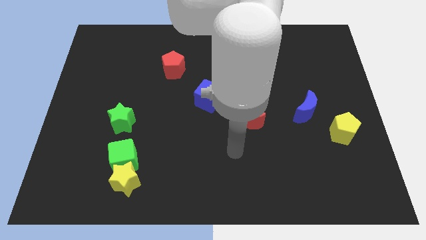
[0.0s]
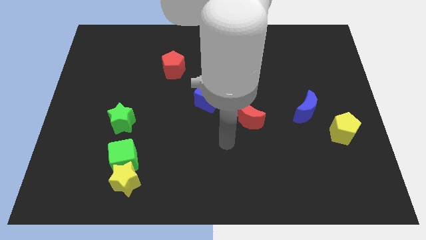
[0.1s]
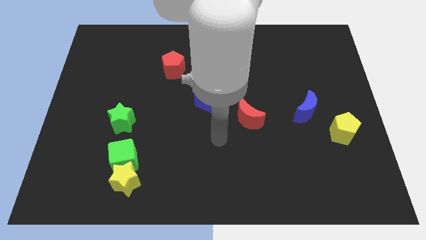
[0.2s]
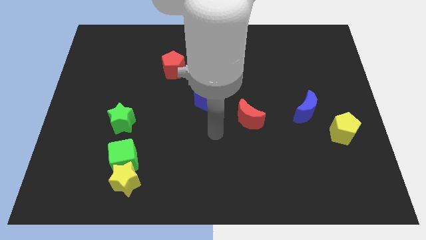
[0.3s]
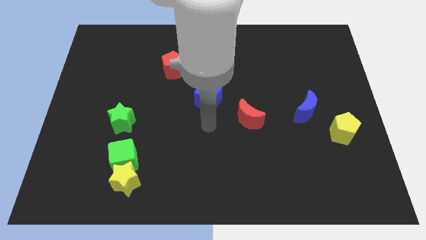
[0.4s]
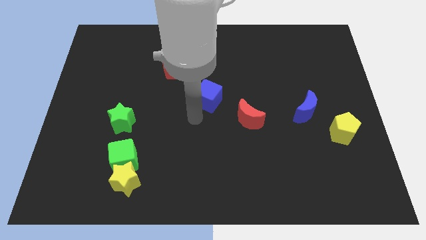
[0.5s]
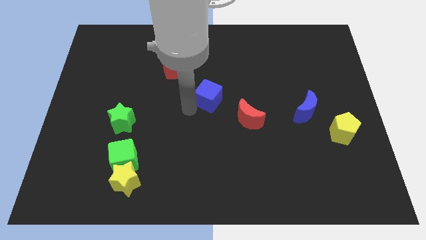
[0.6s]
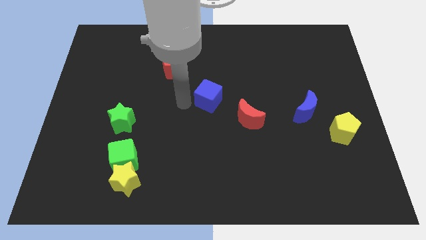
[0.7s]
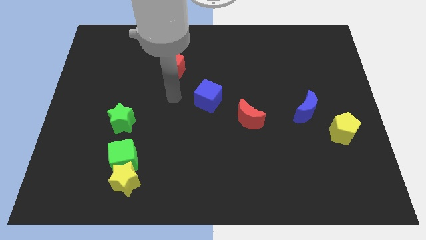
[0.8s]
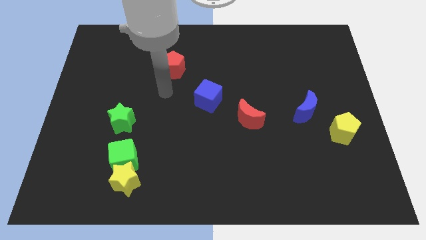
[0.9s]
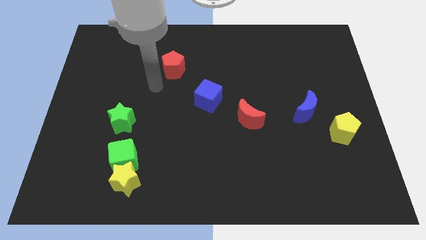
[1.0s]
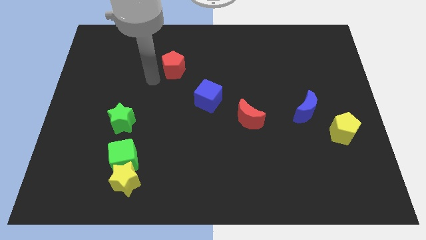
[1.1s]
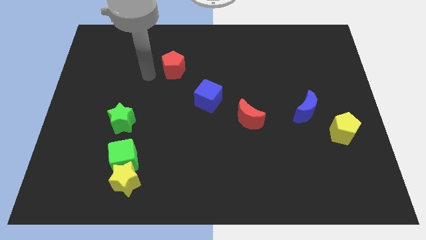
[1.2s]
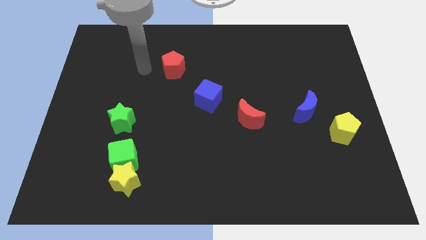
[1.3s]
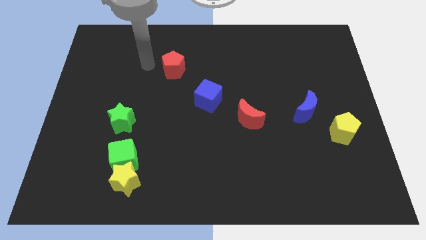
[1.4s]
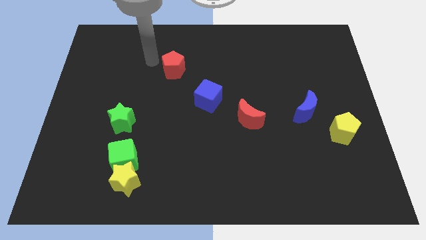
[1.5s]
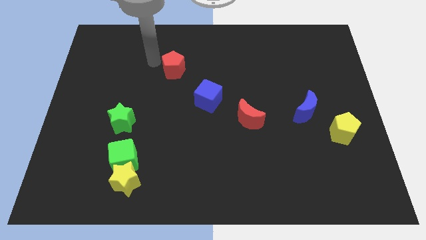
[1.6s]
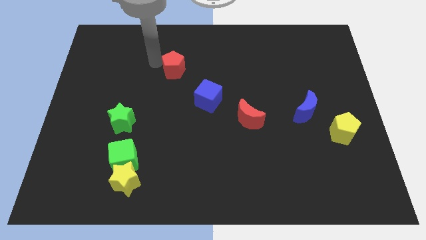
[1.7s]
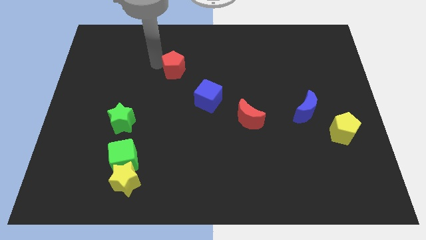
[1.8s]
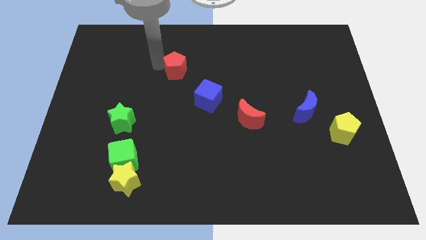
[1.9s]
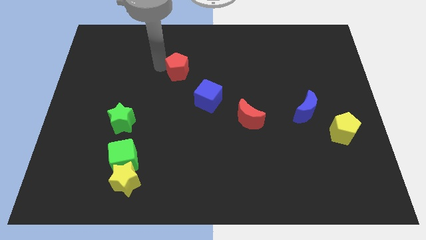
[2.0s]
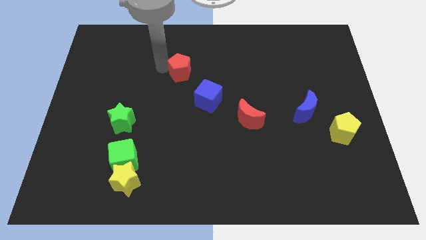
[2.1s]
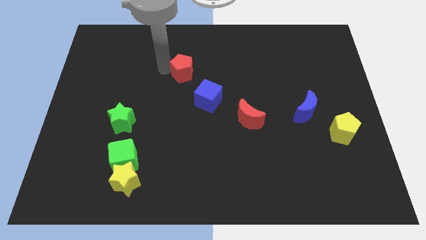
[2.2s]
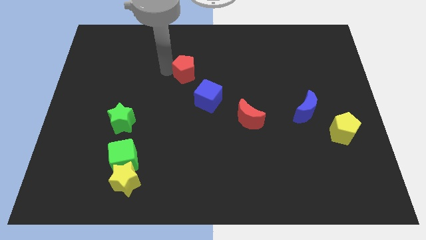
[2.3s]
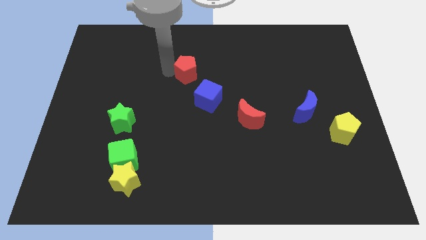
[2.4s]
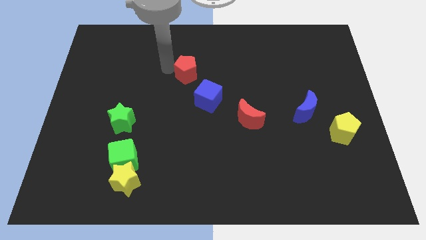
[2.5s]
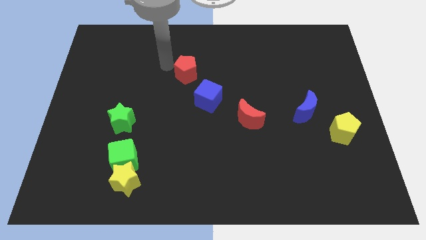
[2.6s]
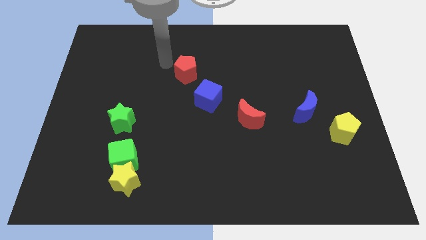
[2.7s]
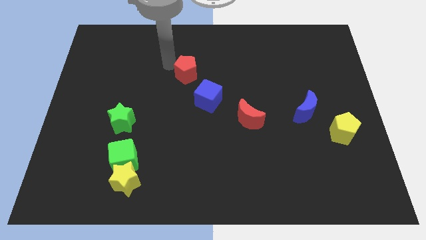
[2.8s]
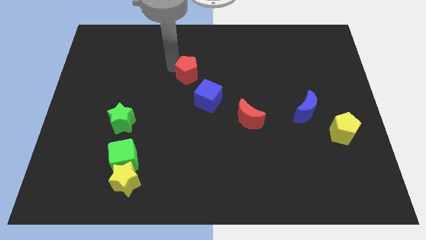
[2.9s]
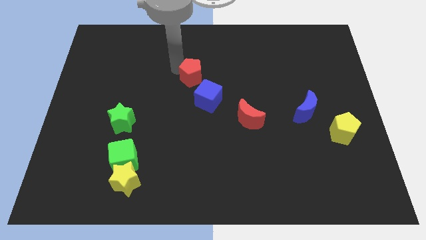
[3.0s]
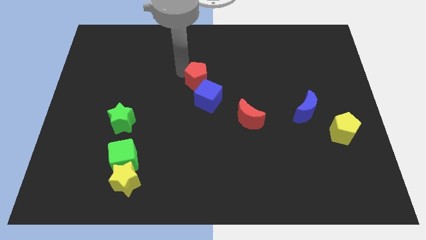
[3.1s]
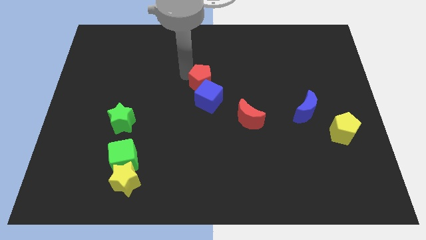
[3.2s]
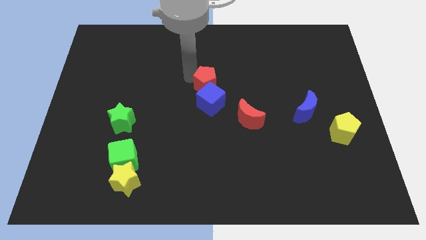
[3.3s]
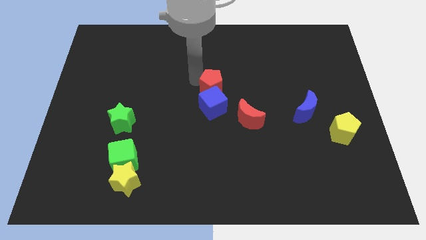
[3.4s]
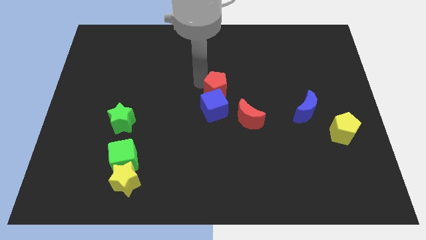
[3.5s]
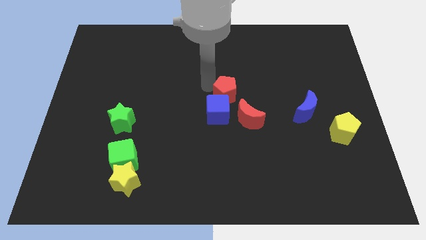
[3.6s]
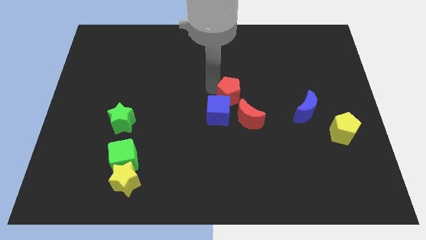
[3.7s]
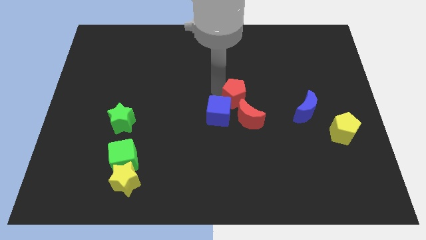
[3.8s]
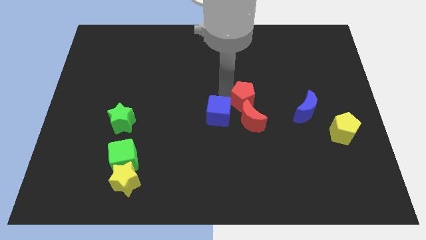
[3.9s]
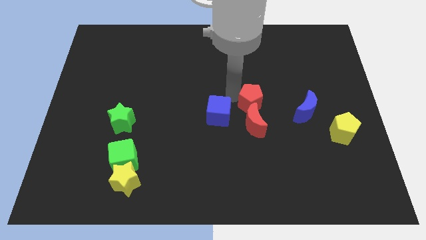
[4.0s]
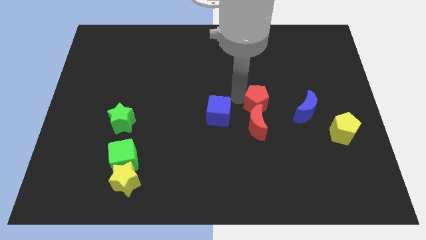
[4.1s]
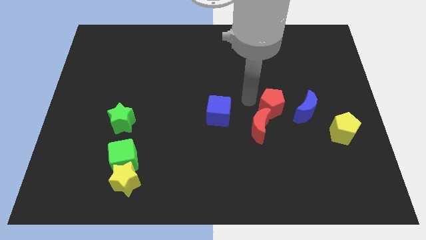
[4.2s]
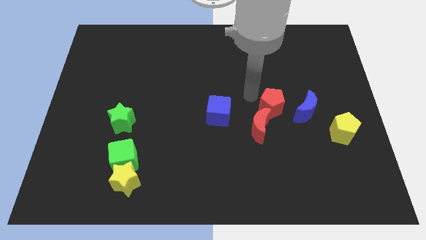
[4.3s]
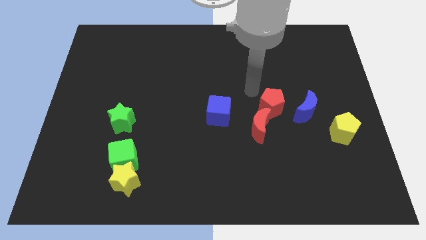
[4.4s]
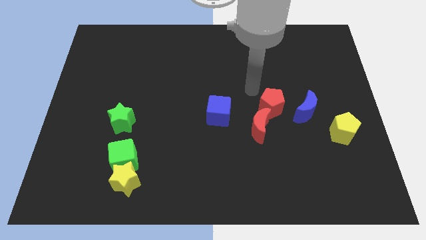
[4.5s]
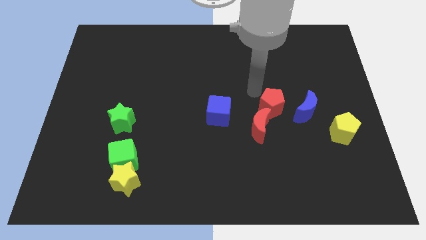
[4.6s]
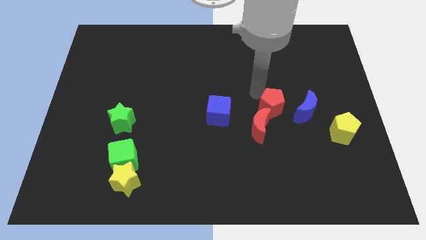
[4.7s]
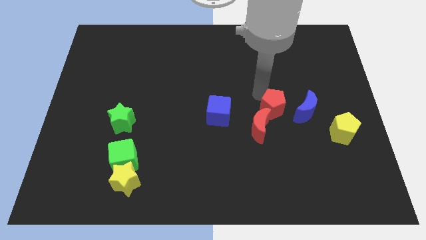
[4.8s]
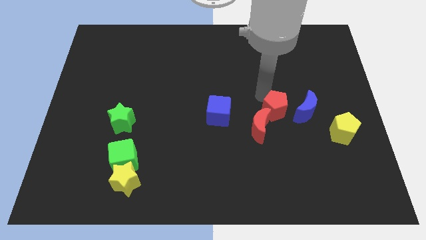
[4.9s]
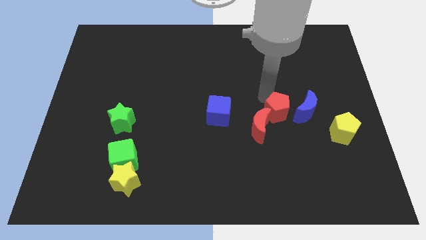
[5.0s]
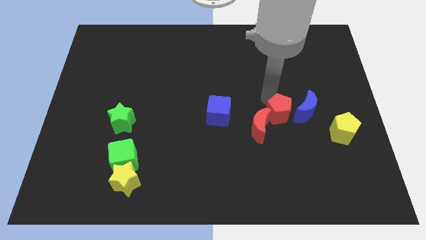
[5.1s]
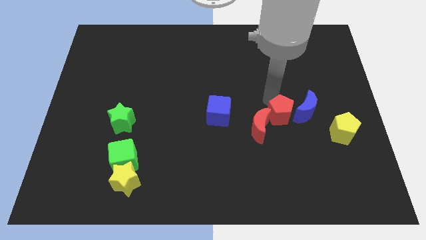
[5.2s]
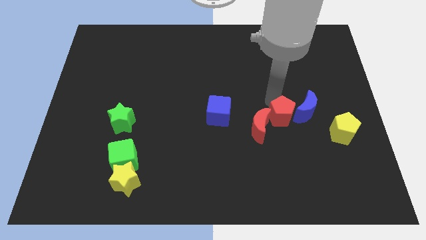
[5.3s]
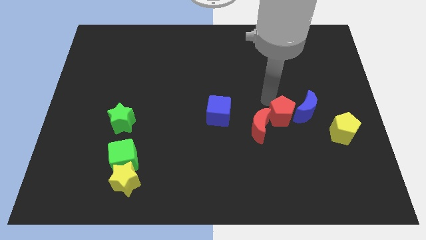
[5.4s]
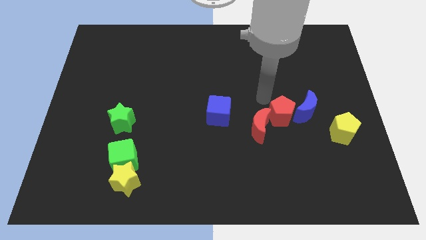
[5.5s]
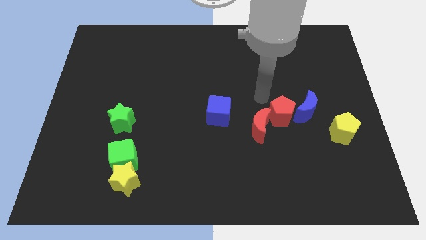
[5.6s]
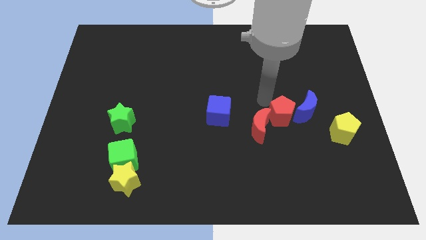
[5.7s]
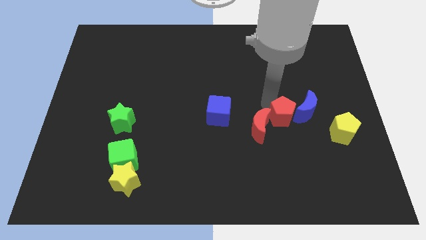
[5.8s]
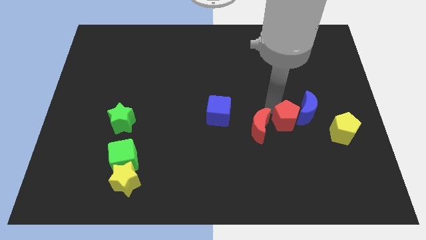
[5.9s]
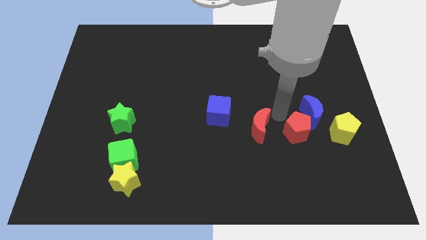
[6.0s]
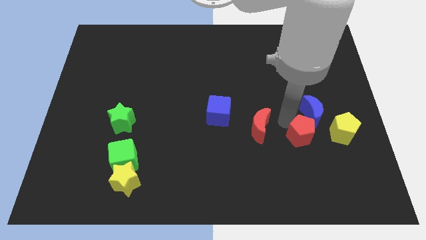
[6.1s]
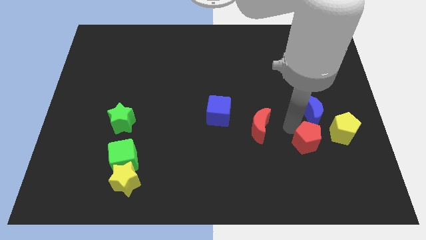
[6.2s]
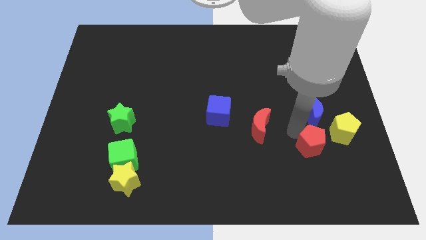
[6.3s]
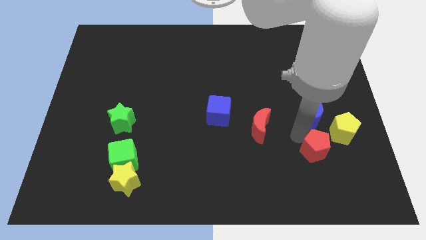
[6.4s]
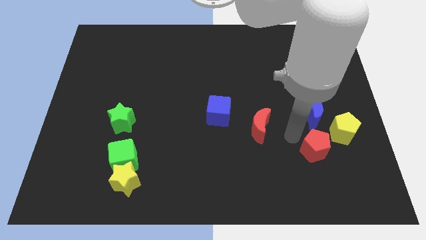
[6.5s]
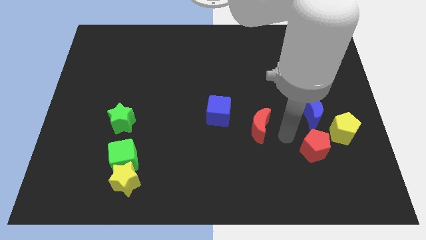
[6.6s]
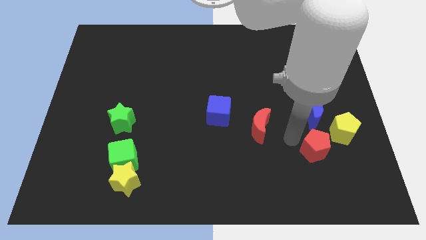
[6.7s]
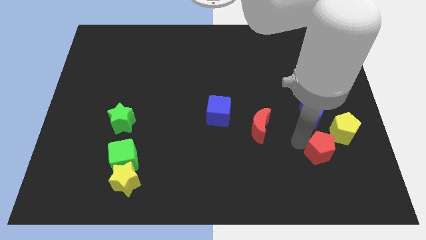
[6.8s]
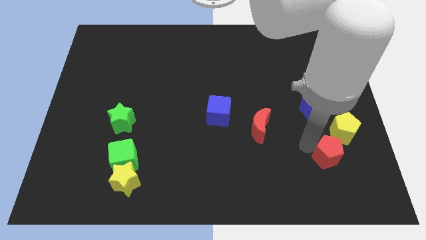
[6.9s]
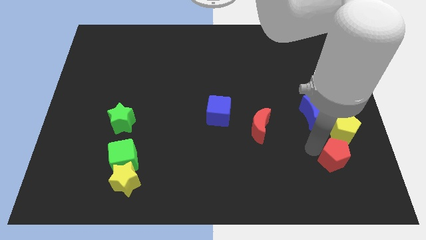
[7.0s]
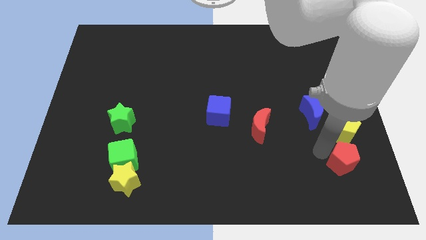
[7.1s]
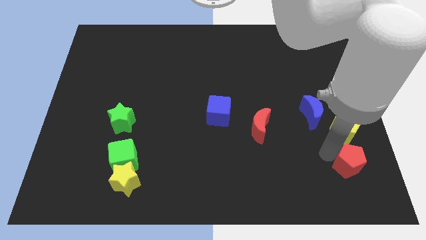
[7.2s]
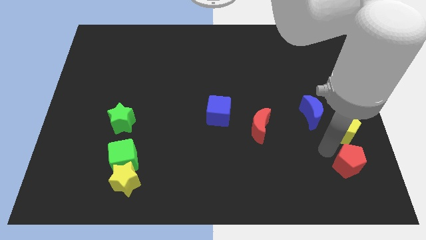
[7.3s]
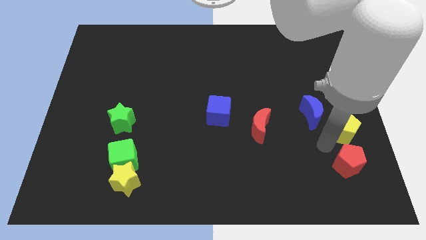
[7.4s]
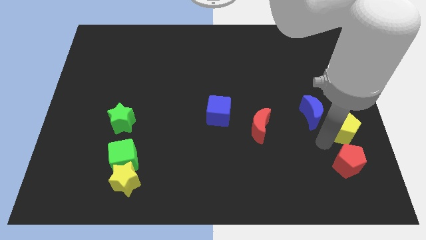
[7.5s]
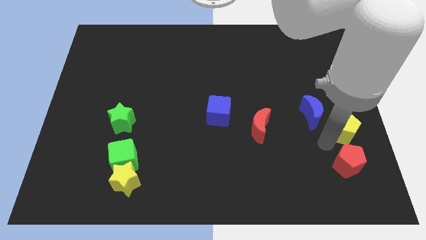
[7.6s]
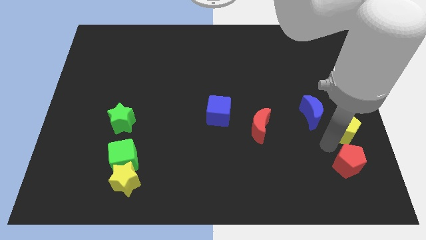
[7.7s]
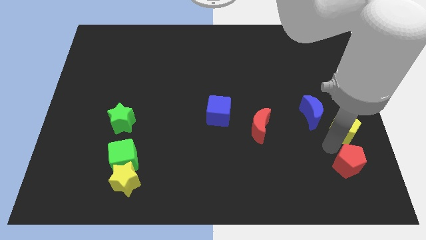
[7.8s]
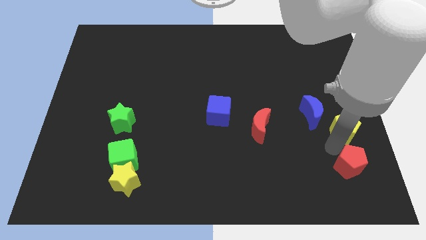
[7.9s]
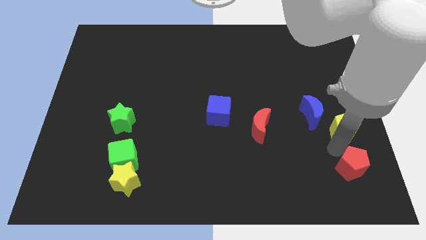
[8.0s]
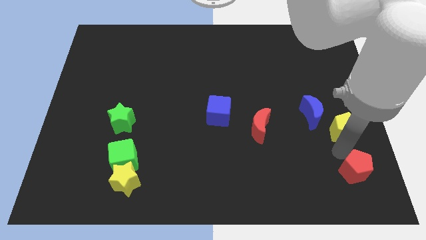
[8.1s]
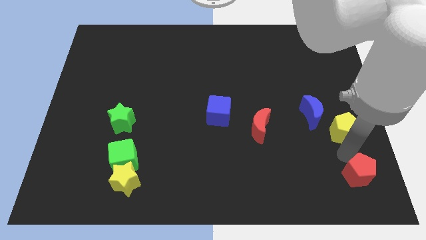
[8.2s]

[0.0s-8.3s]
move the red pentagon to the bottom right corner
